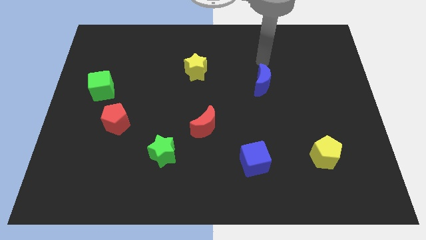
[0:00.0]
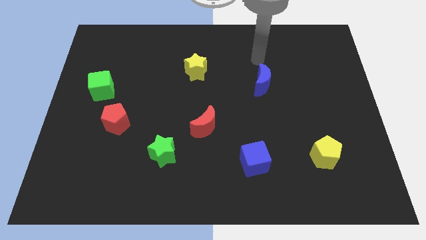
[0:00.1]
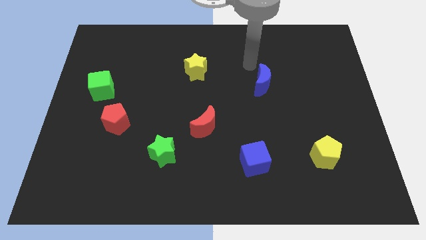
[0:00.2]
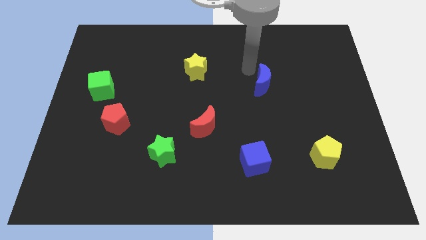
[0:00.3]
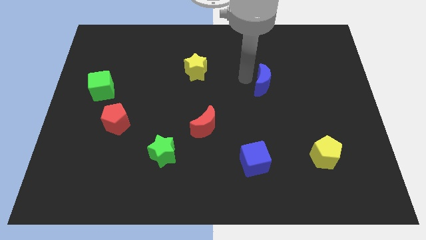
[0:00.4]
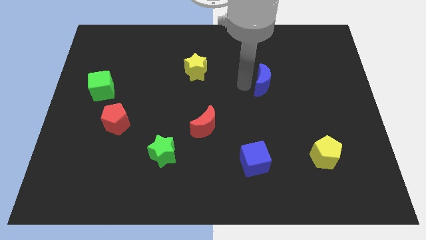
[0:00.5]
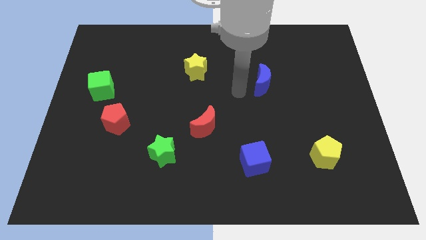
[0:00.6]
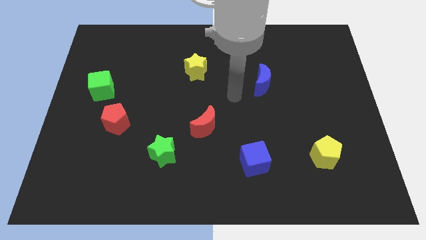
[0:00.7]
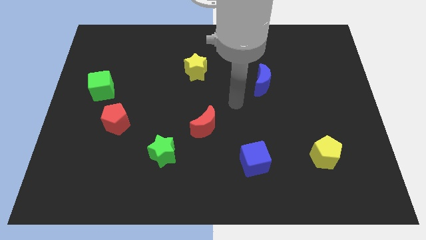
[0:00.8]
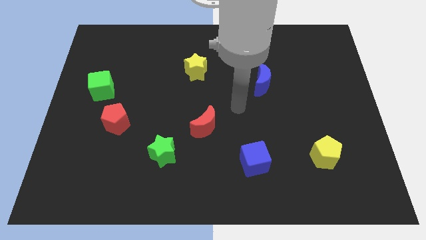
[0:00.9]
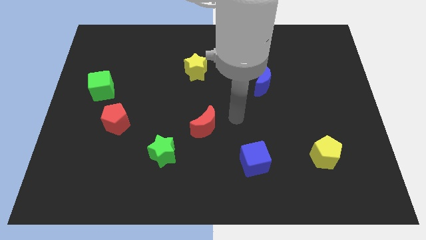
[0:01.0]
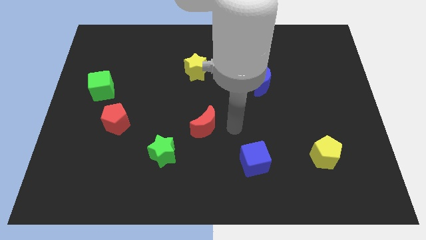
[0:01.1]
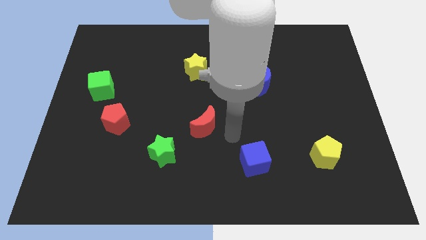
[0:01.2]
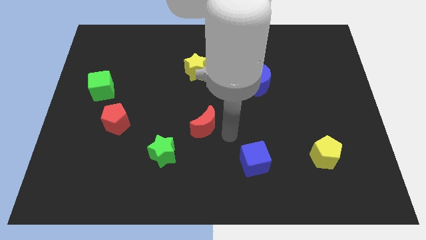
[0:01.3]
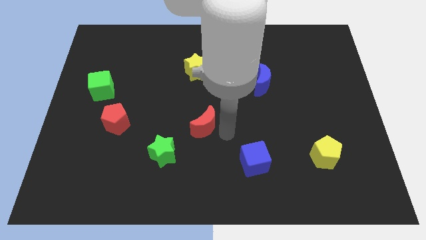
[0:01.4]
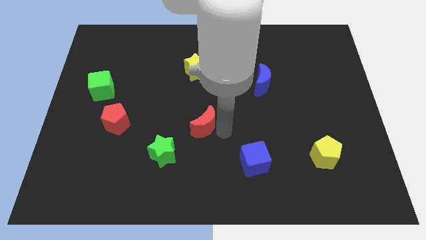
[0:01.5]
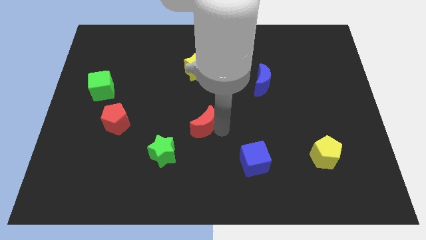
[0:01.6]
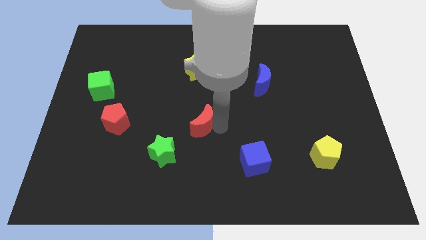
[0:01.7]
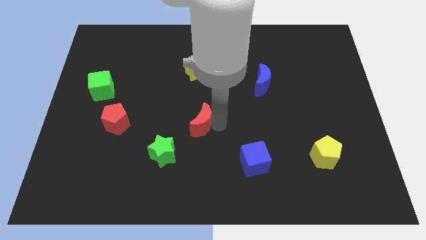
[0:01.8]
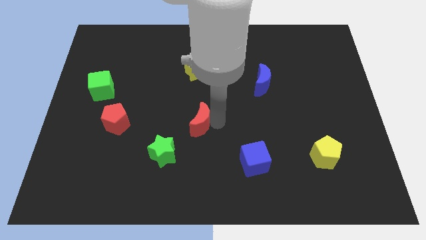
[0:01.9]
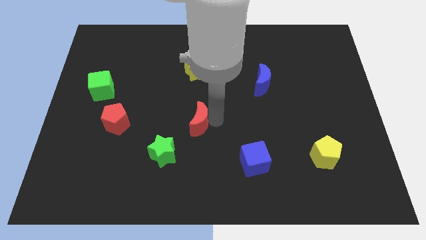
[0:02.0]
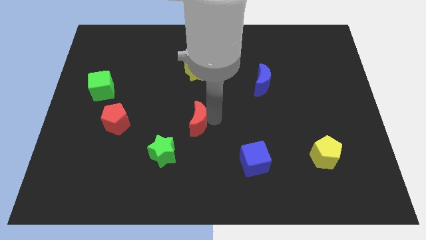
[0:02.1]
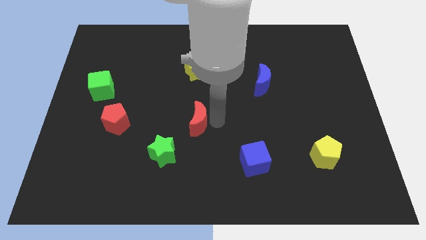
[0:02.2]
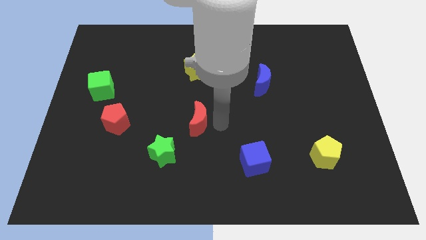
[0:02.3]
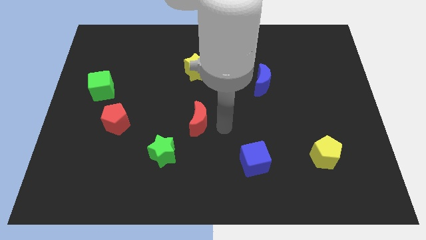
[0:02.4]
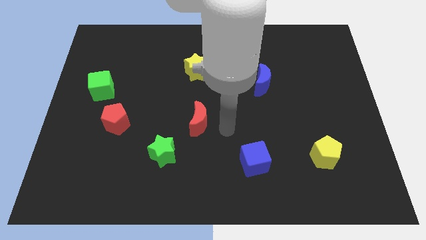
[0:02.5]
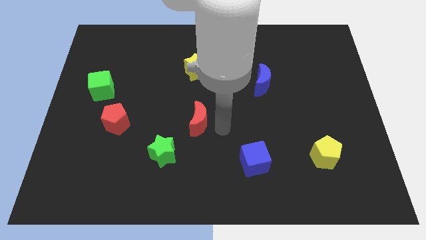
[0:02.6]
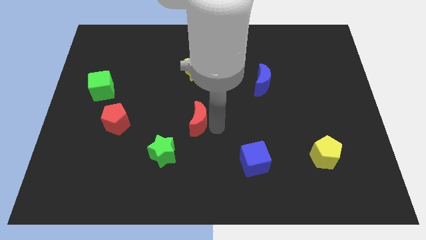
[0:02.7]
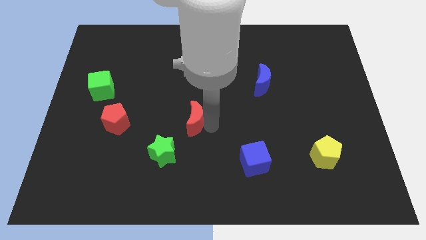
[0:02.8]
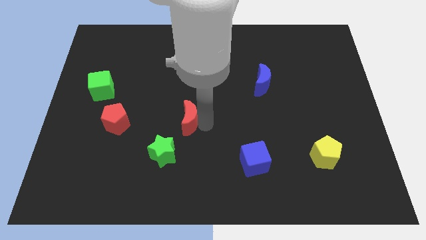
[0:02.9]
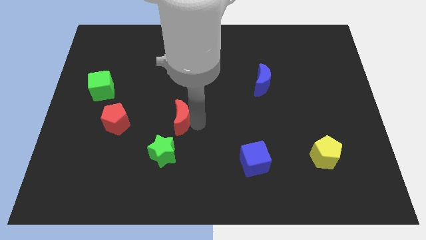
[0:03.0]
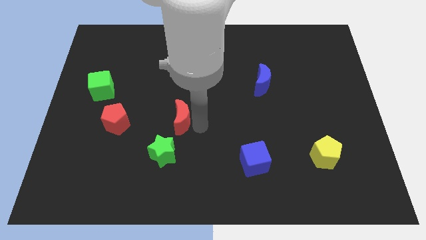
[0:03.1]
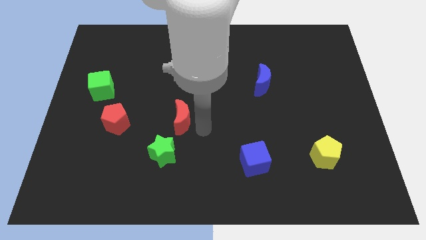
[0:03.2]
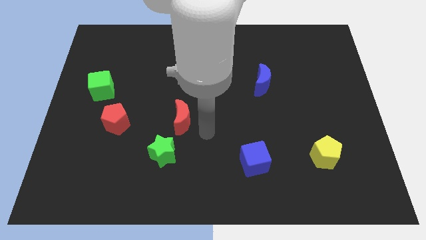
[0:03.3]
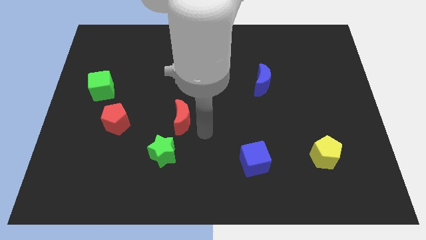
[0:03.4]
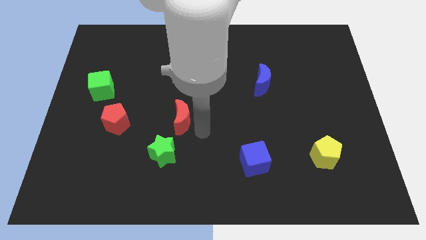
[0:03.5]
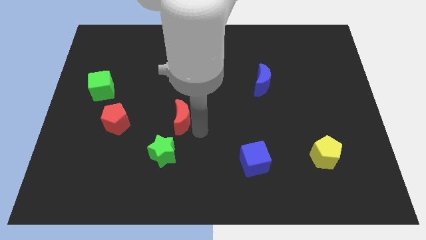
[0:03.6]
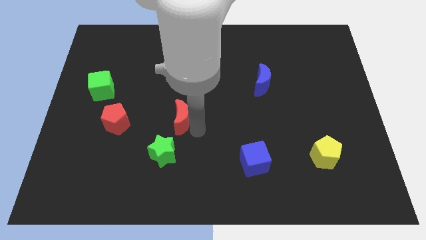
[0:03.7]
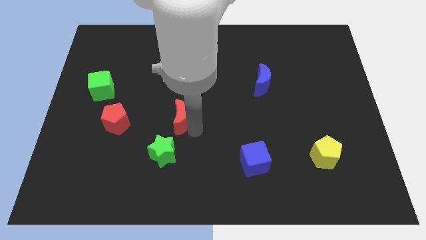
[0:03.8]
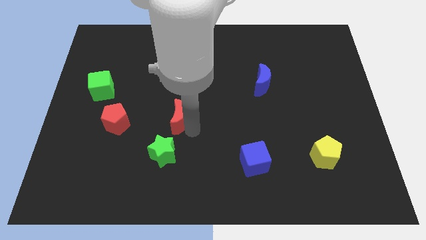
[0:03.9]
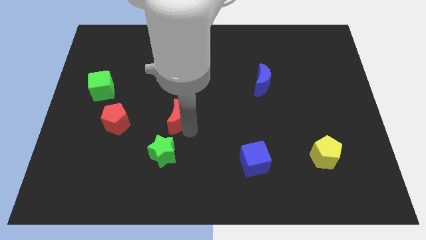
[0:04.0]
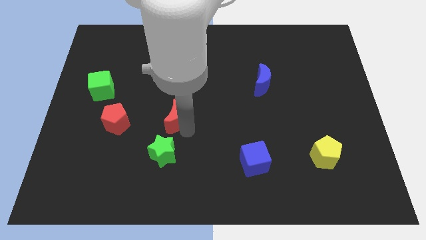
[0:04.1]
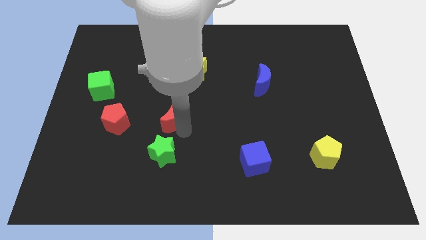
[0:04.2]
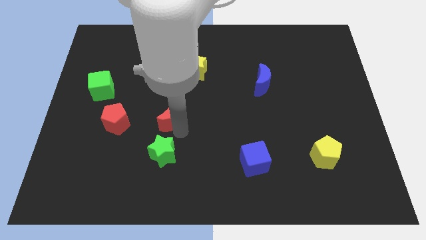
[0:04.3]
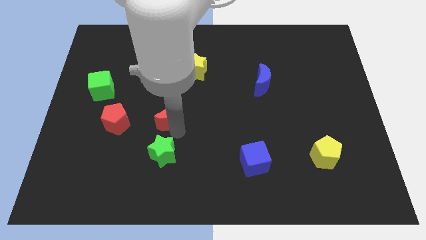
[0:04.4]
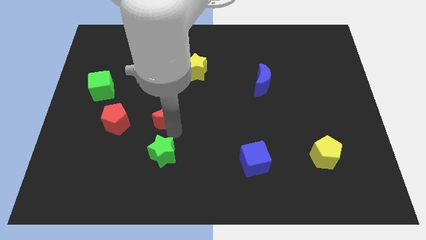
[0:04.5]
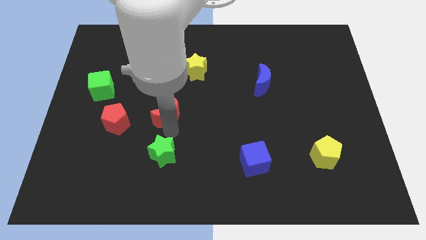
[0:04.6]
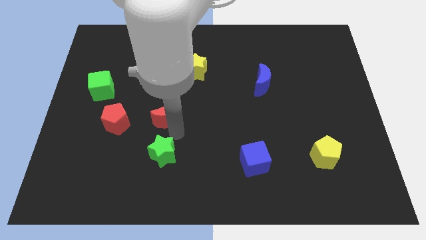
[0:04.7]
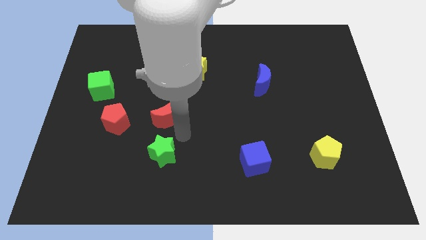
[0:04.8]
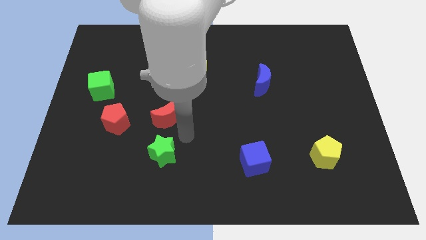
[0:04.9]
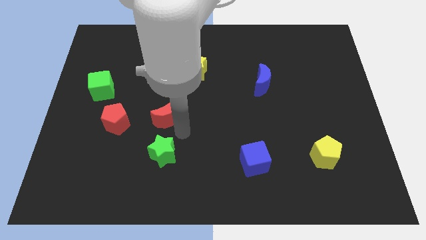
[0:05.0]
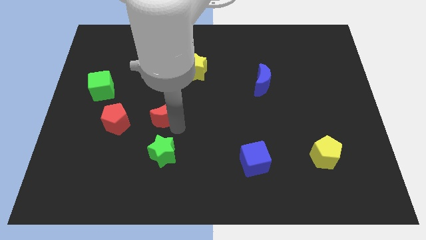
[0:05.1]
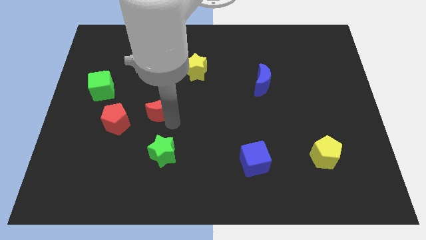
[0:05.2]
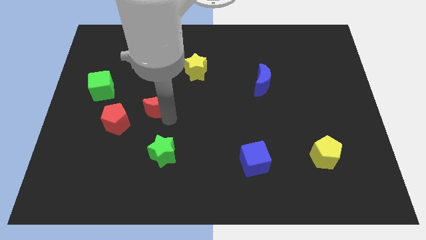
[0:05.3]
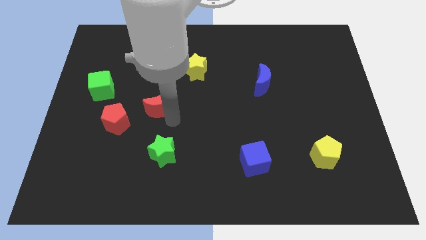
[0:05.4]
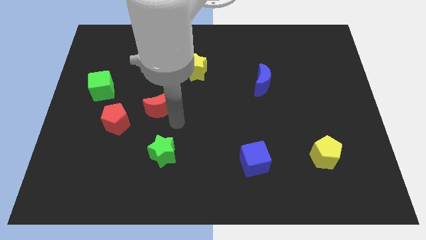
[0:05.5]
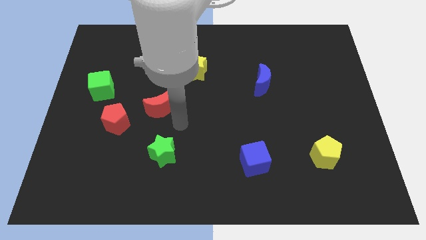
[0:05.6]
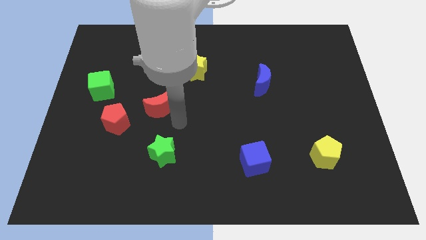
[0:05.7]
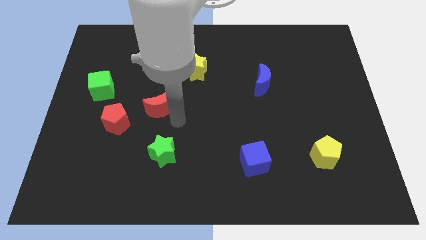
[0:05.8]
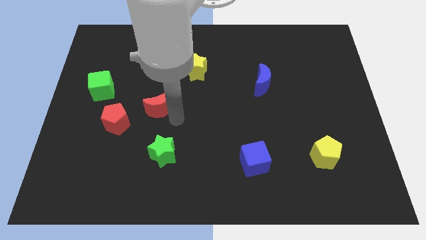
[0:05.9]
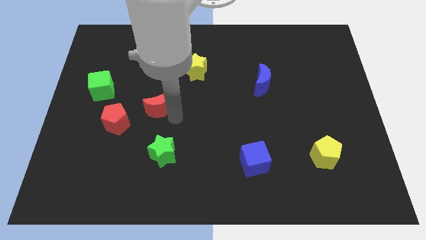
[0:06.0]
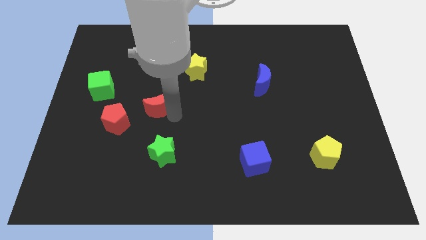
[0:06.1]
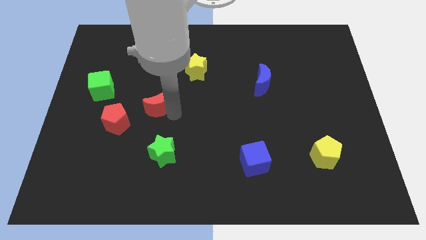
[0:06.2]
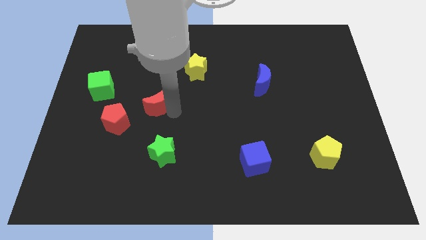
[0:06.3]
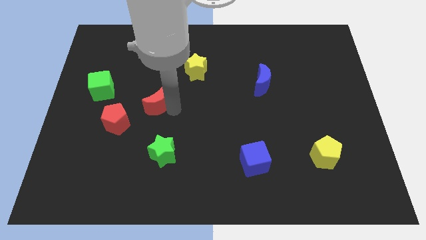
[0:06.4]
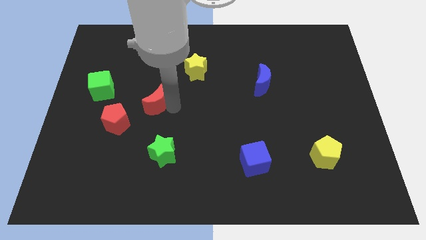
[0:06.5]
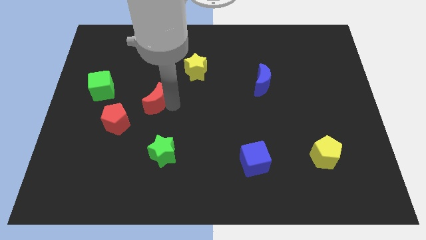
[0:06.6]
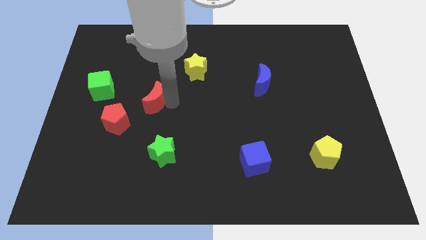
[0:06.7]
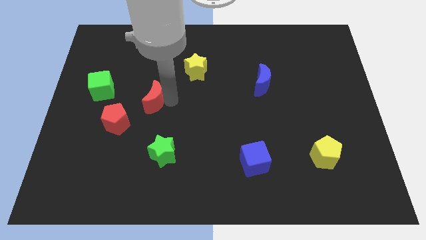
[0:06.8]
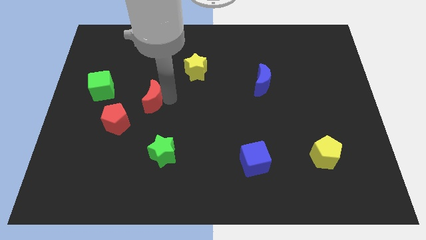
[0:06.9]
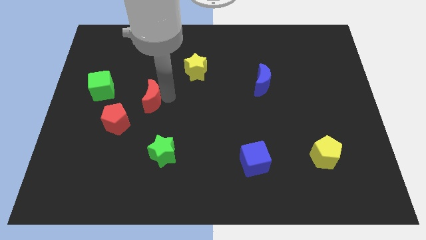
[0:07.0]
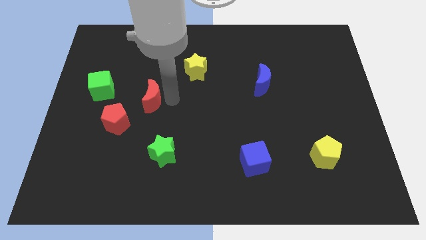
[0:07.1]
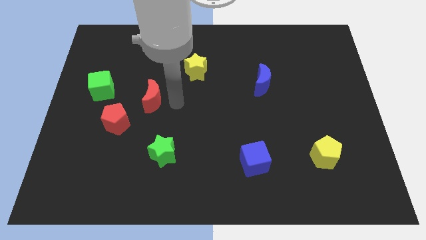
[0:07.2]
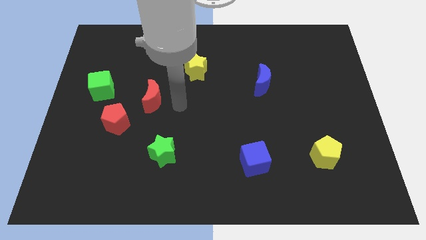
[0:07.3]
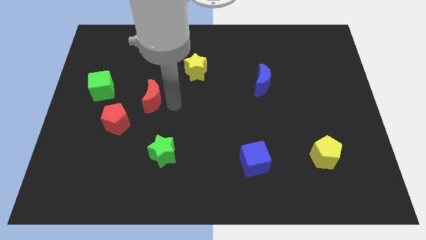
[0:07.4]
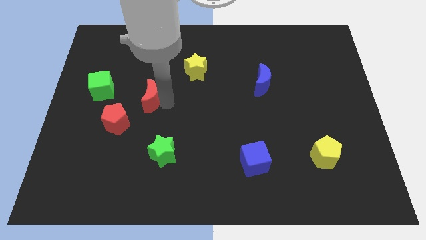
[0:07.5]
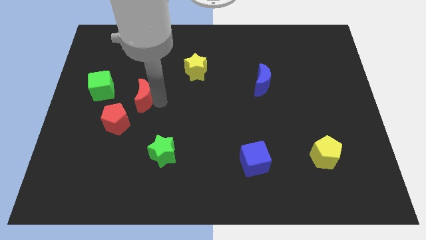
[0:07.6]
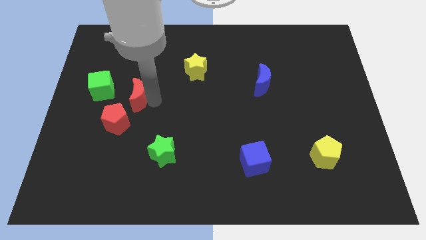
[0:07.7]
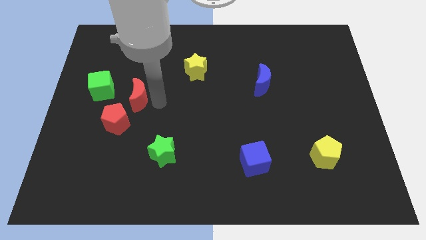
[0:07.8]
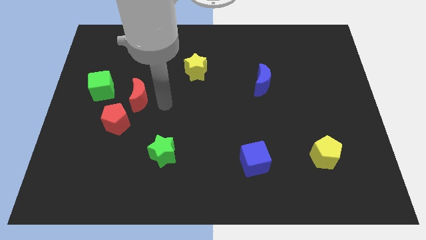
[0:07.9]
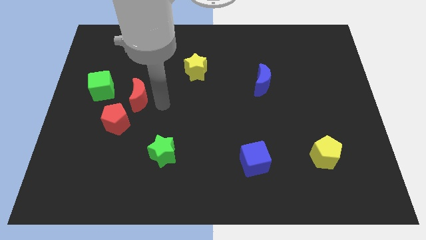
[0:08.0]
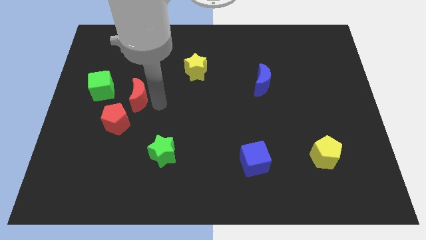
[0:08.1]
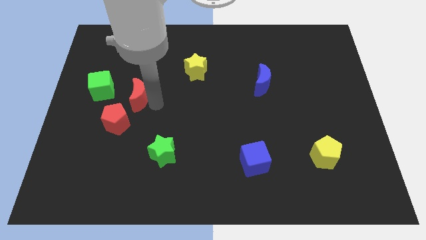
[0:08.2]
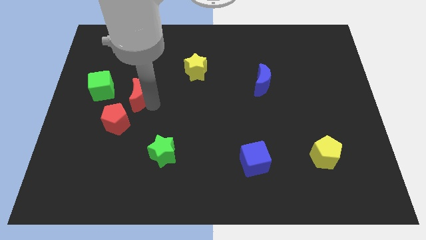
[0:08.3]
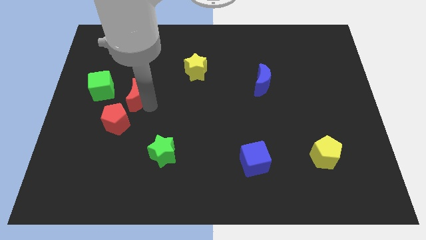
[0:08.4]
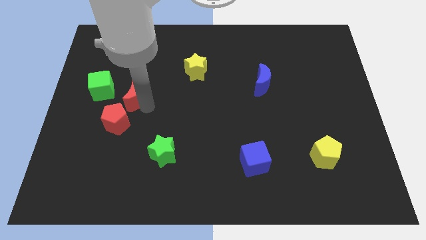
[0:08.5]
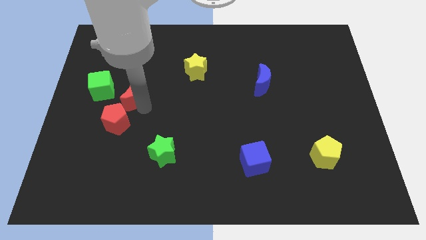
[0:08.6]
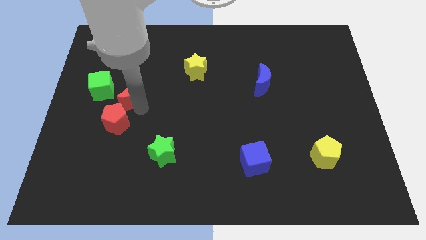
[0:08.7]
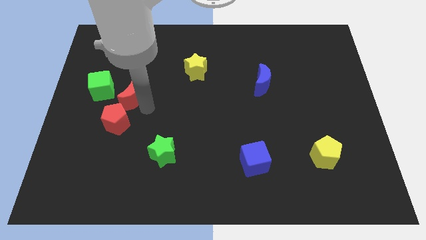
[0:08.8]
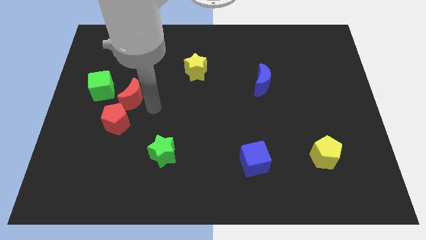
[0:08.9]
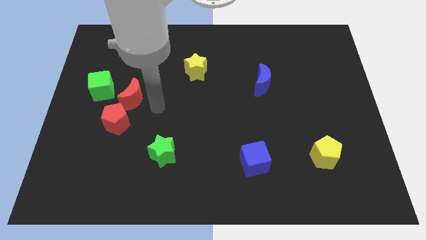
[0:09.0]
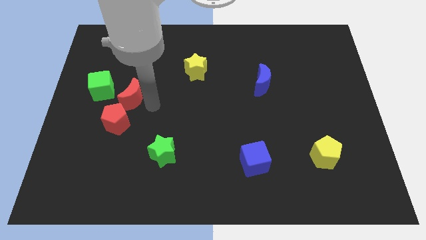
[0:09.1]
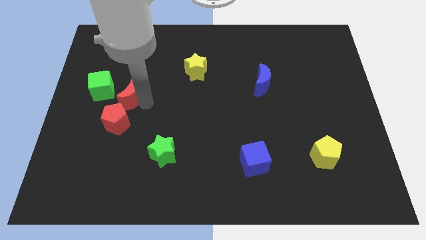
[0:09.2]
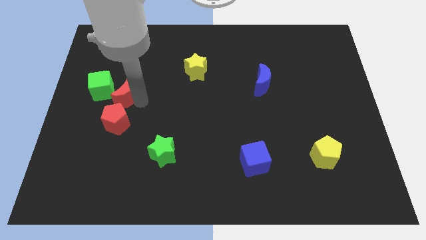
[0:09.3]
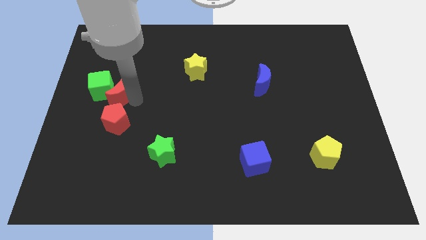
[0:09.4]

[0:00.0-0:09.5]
slide the red moon to the green cube
